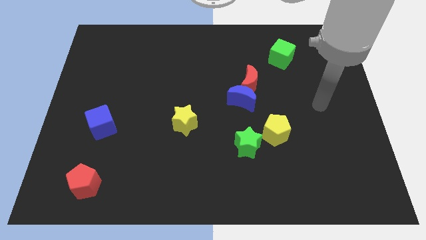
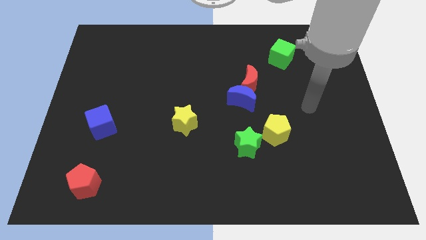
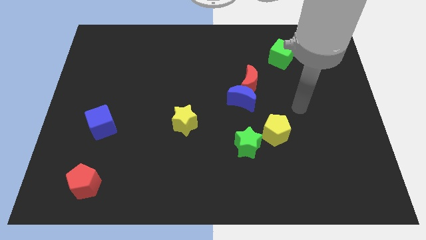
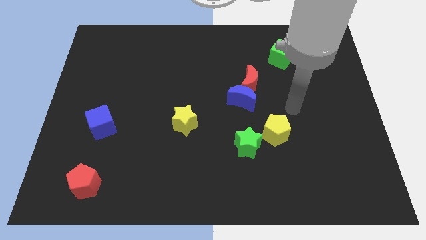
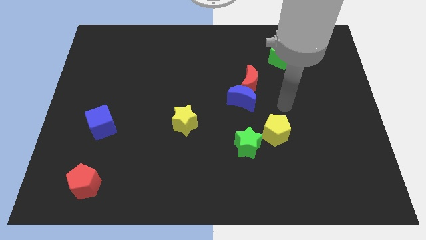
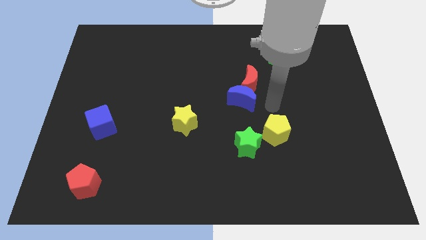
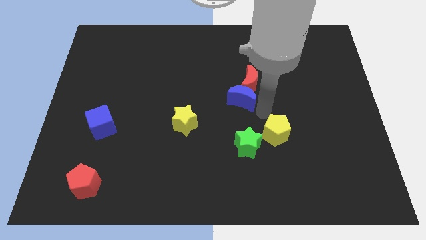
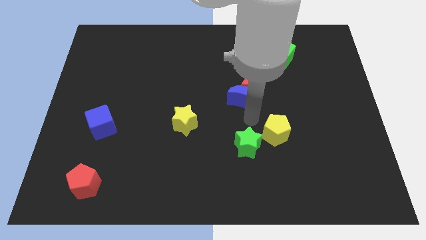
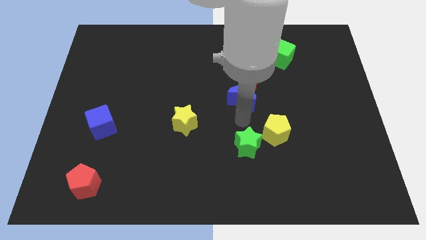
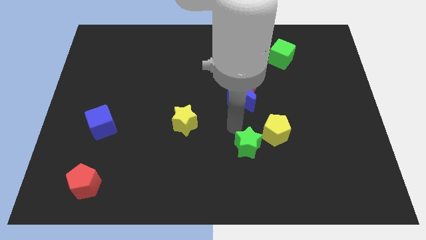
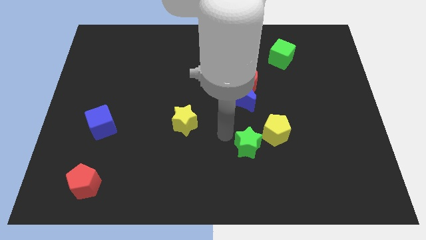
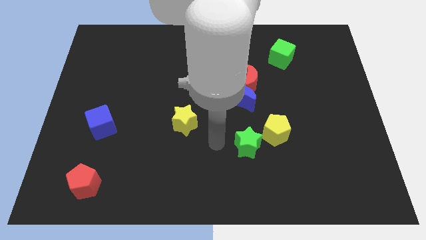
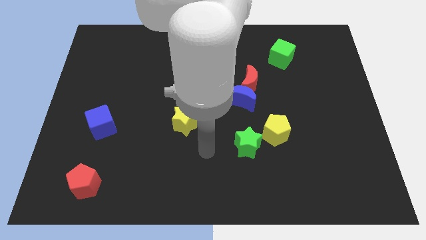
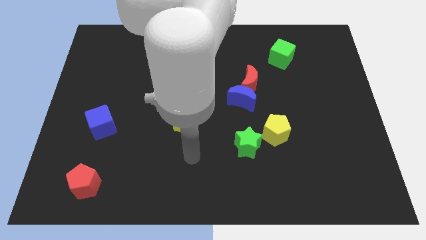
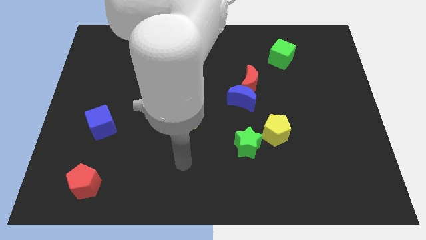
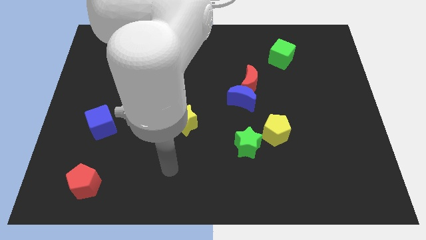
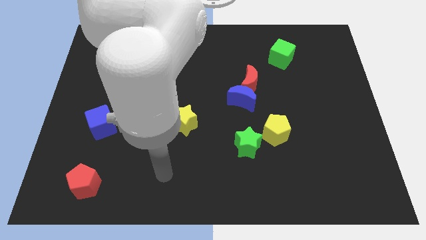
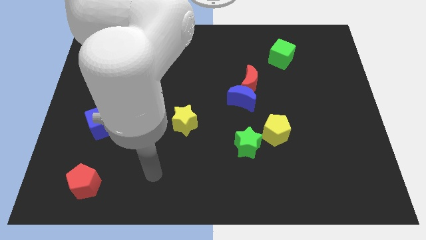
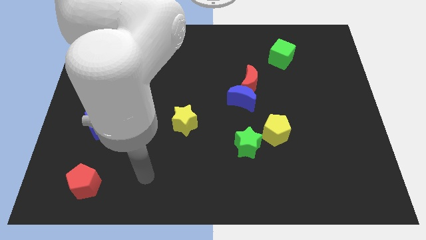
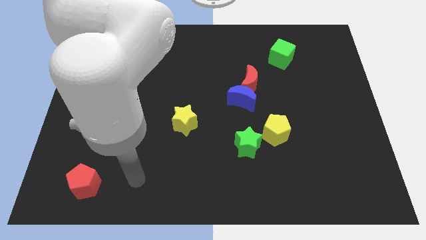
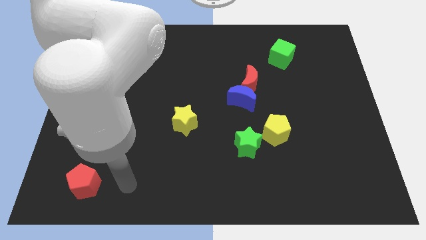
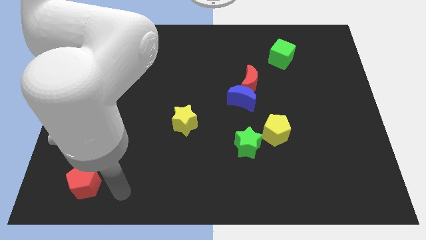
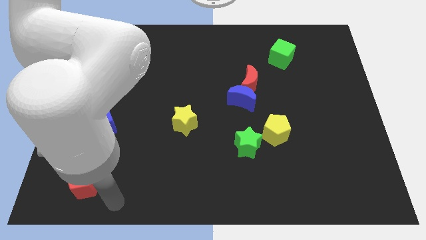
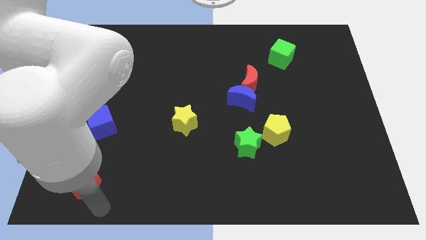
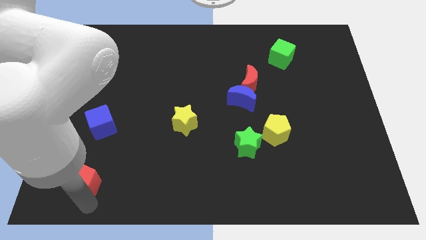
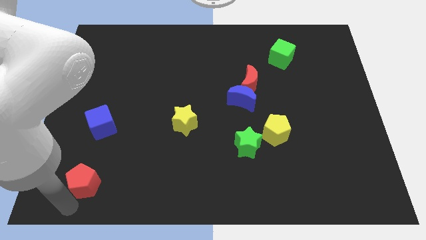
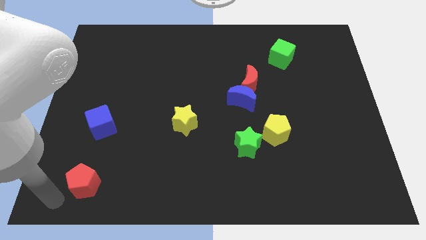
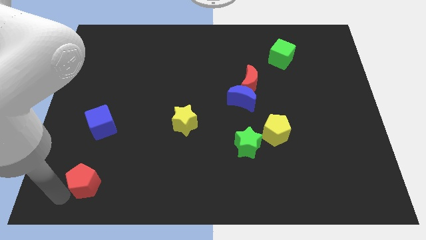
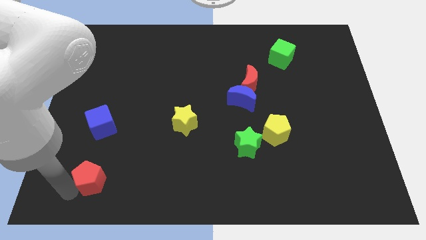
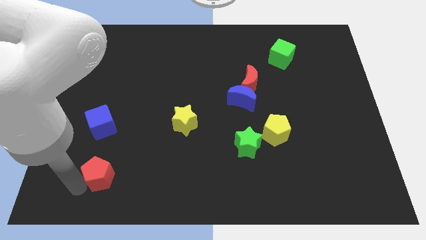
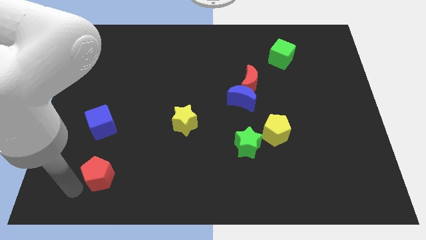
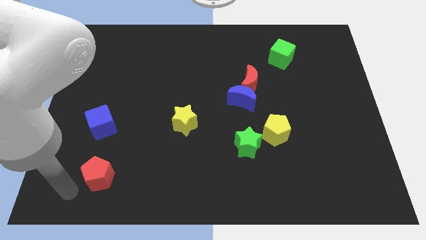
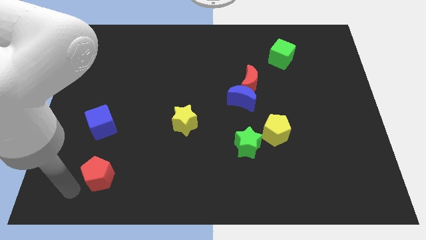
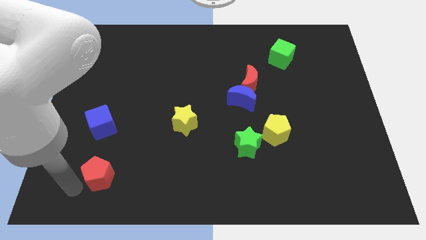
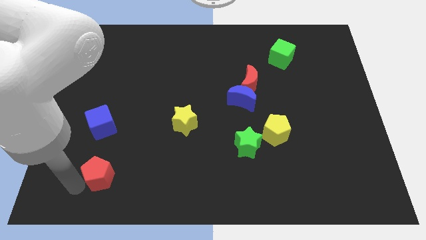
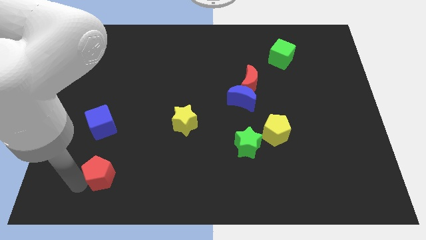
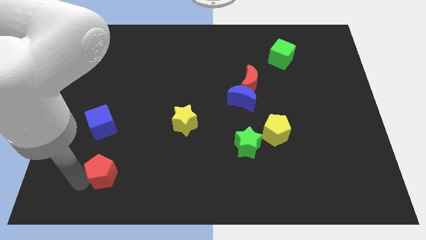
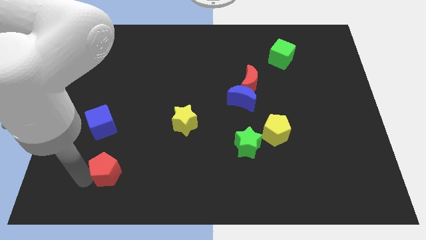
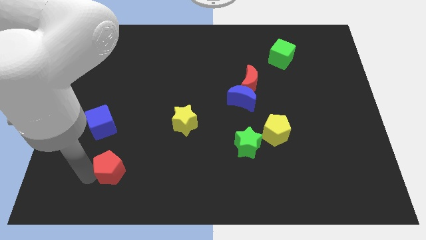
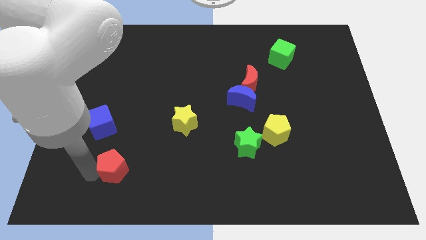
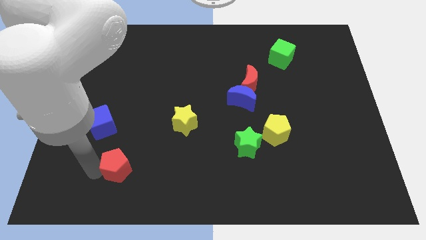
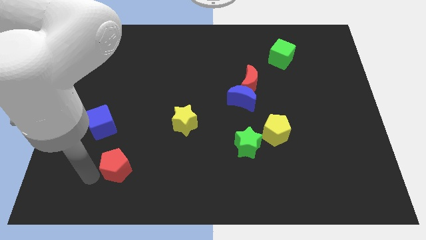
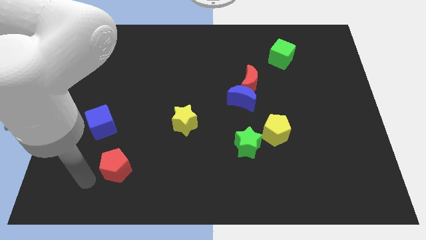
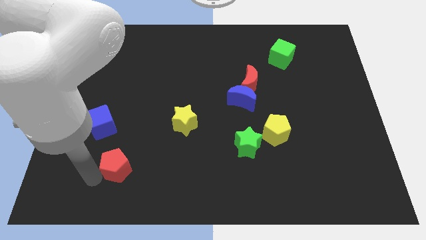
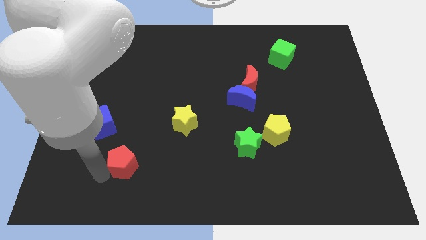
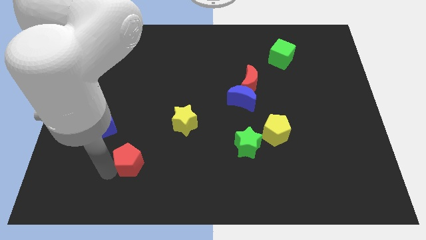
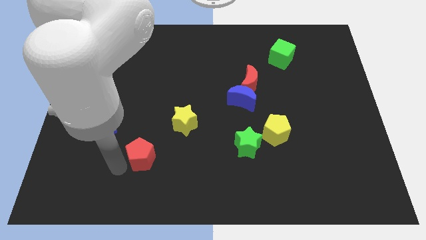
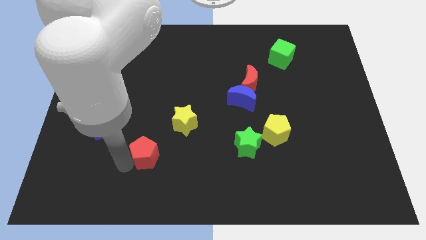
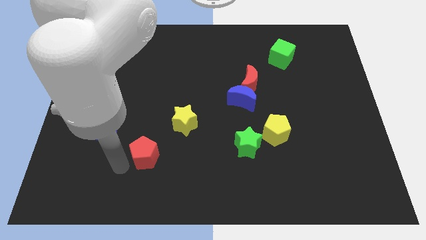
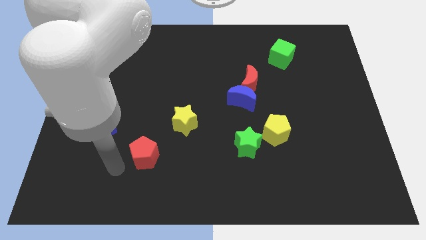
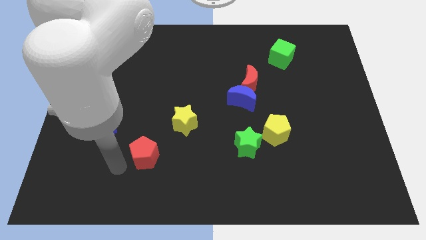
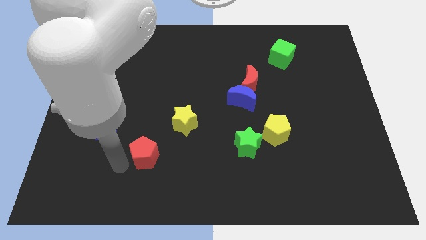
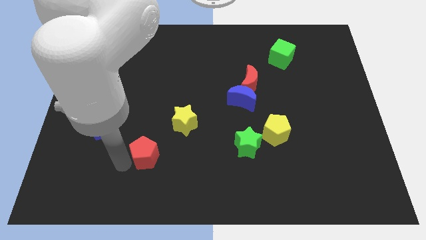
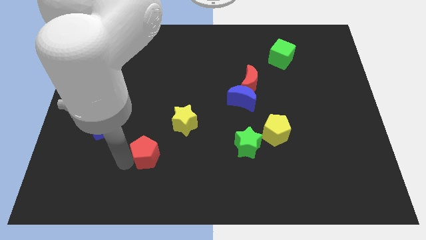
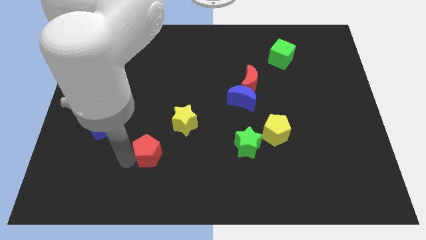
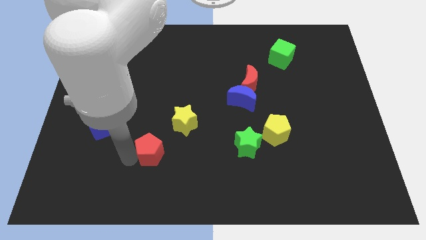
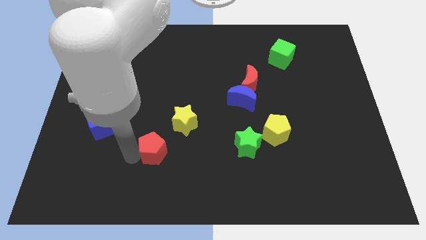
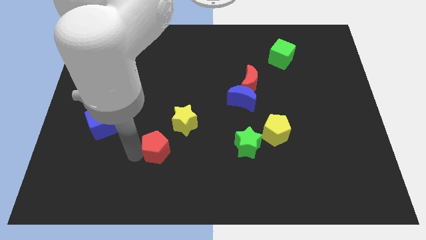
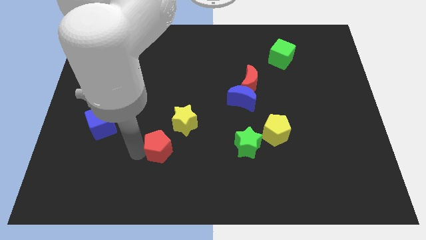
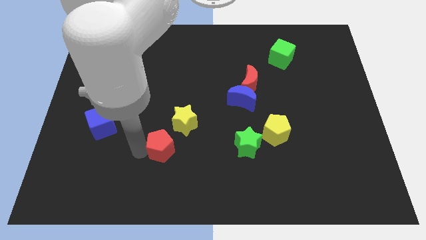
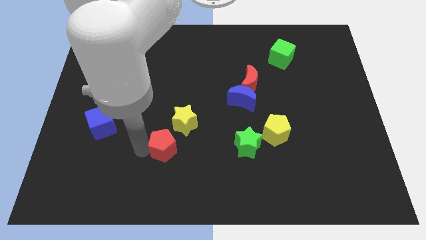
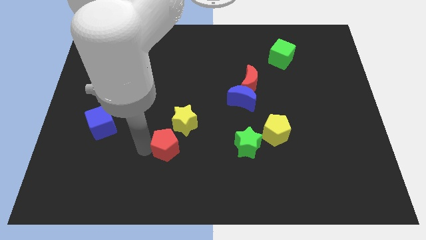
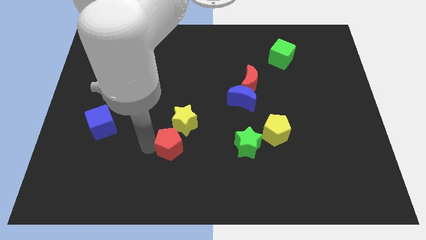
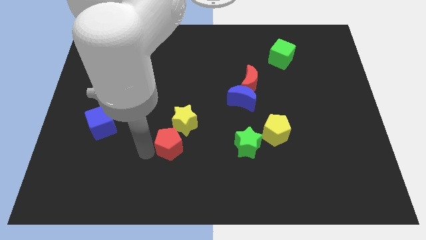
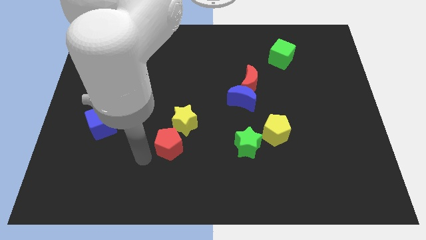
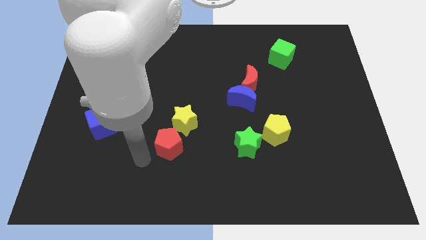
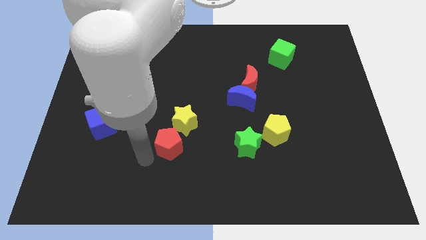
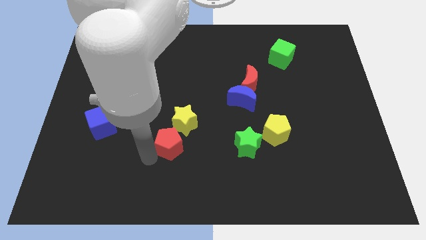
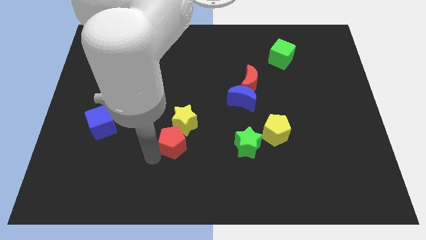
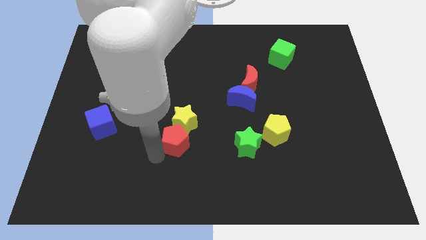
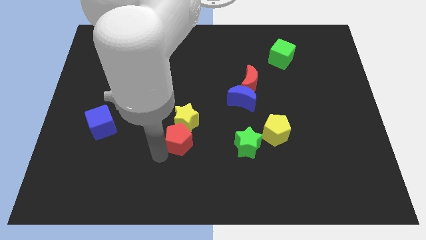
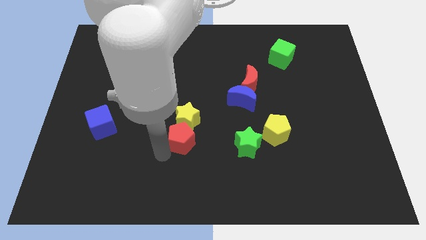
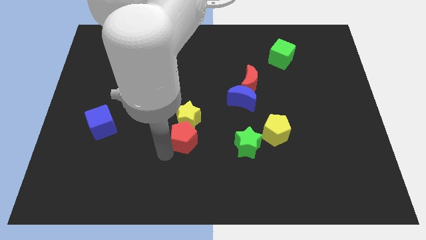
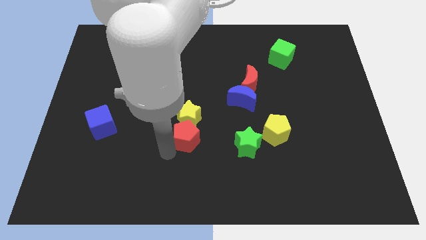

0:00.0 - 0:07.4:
slide the red pentagon to the middle of the board
